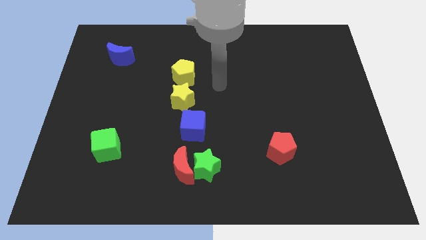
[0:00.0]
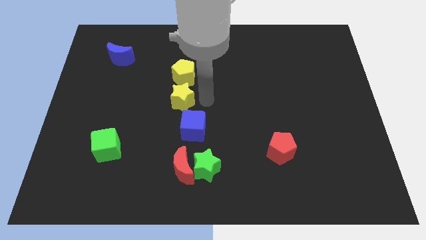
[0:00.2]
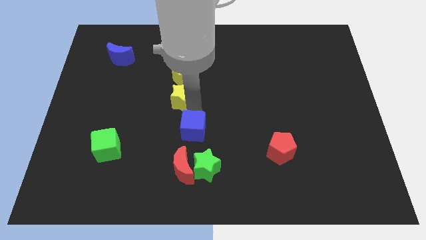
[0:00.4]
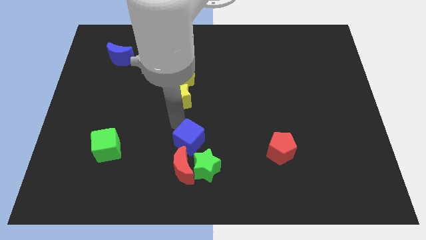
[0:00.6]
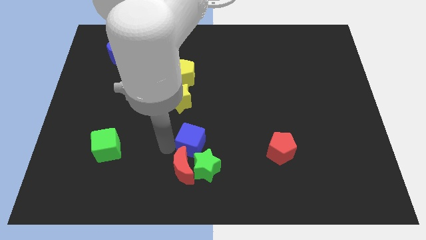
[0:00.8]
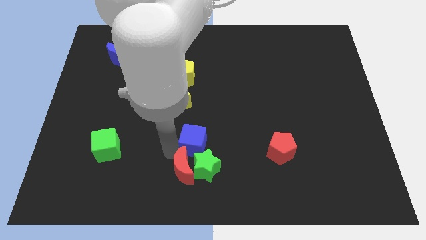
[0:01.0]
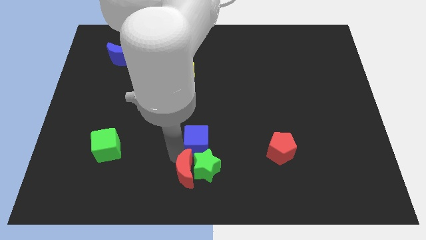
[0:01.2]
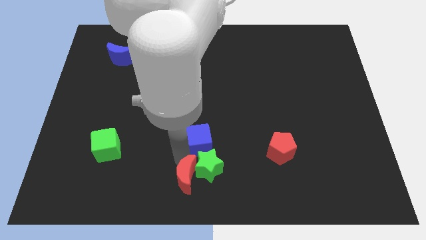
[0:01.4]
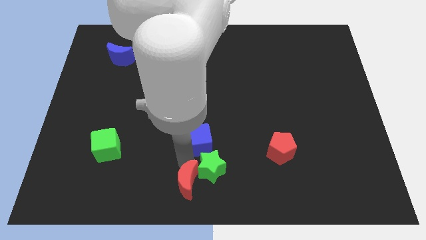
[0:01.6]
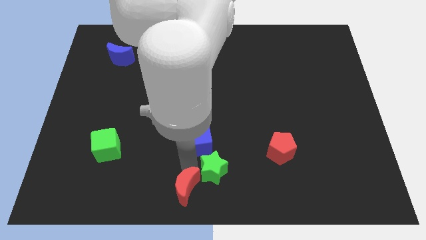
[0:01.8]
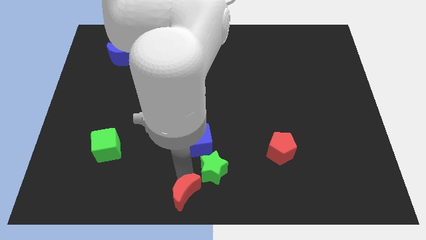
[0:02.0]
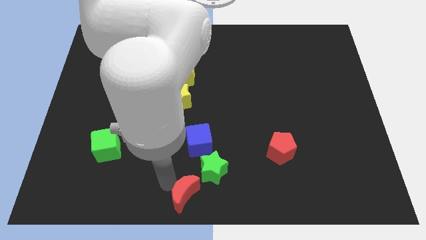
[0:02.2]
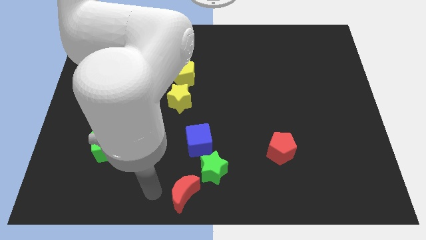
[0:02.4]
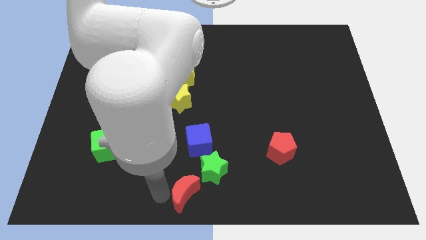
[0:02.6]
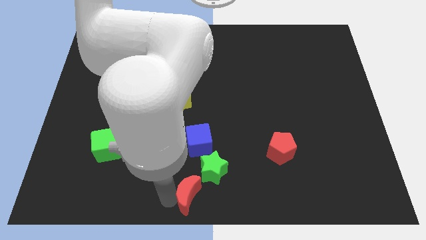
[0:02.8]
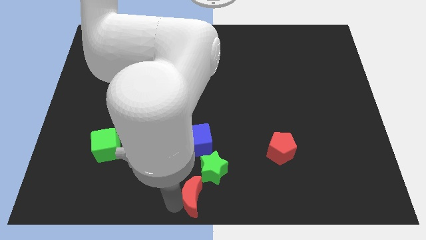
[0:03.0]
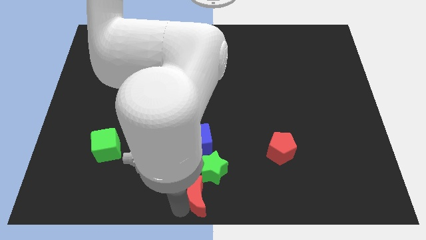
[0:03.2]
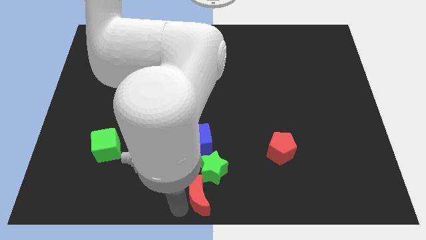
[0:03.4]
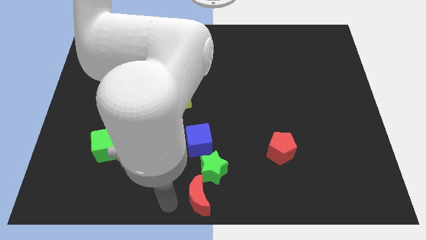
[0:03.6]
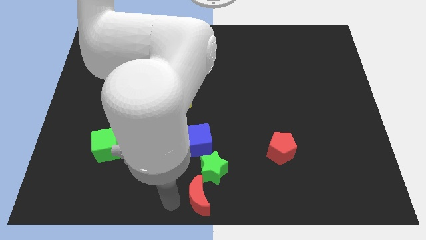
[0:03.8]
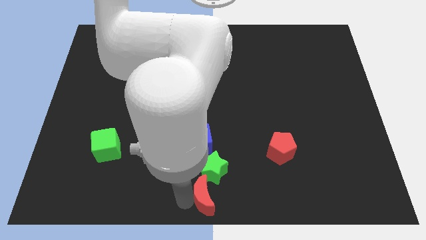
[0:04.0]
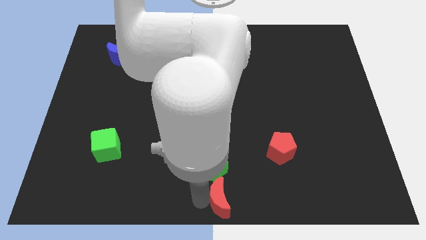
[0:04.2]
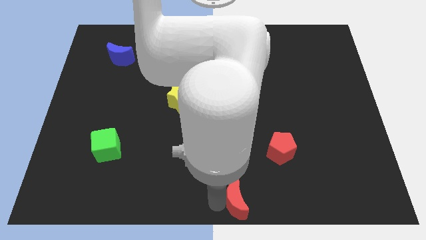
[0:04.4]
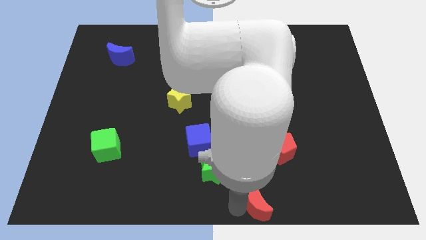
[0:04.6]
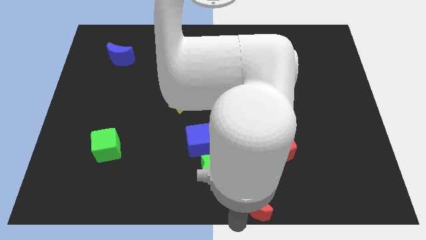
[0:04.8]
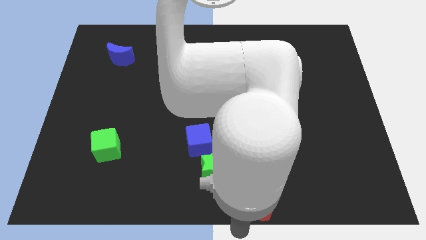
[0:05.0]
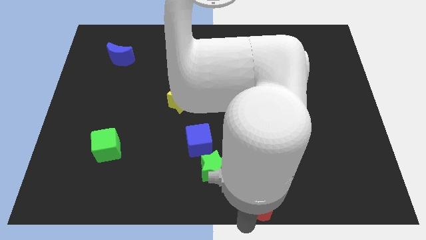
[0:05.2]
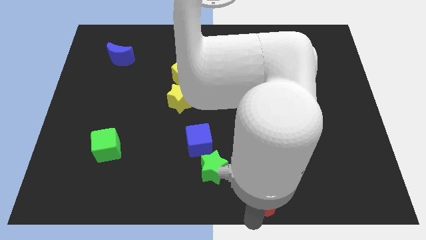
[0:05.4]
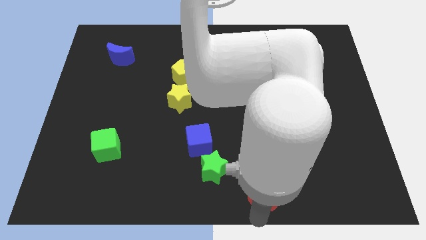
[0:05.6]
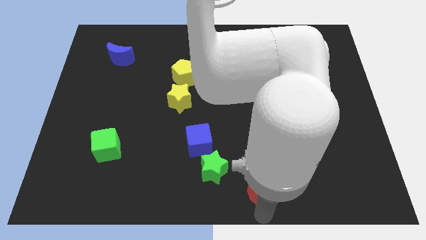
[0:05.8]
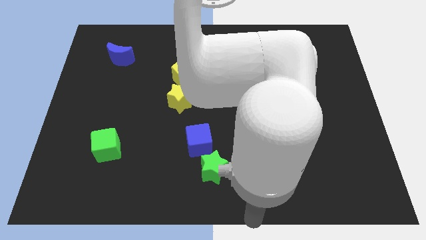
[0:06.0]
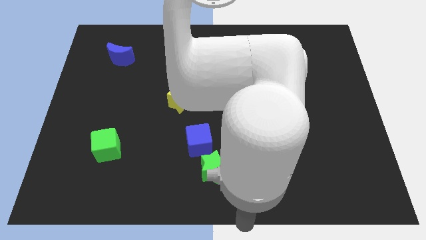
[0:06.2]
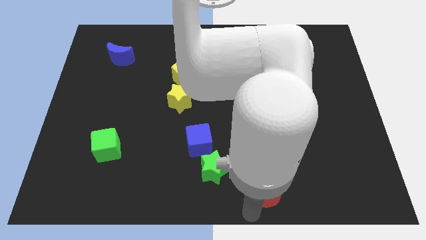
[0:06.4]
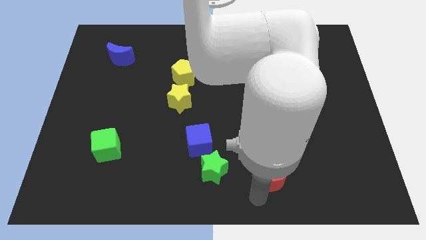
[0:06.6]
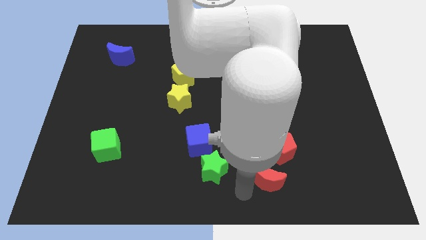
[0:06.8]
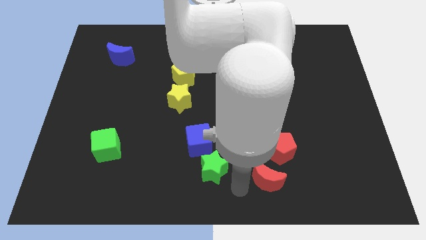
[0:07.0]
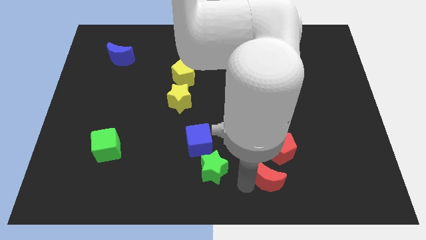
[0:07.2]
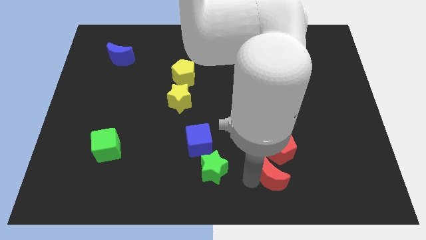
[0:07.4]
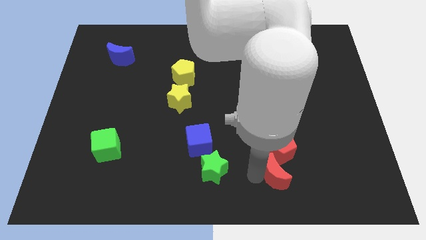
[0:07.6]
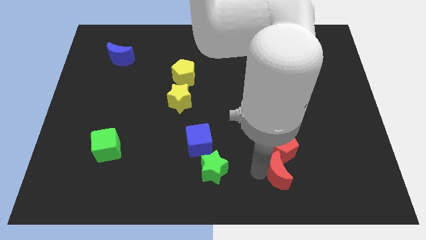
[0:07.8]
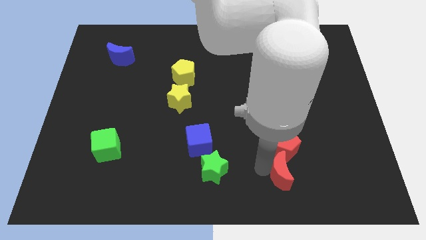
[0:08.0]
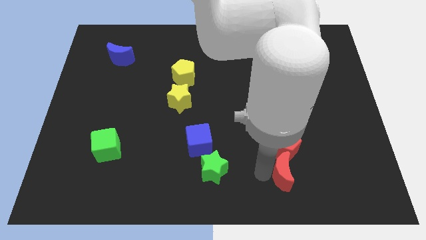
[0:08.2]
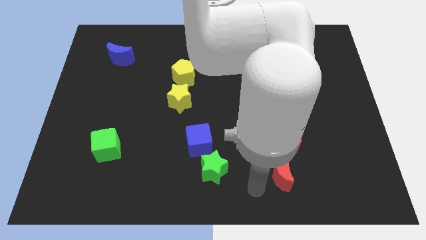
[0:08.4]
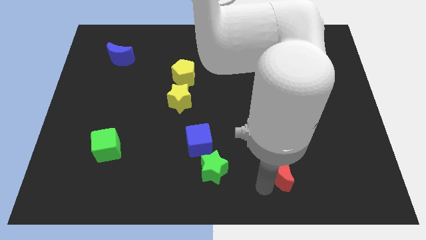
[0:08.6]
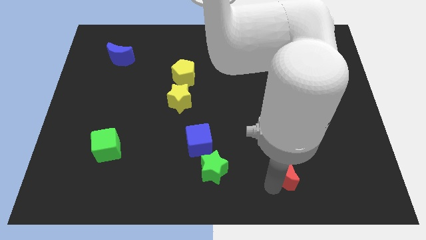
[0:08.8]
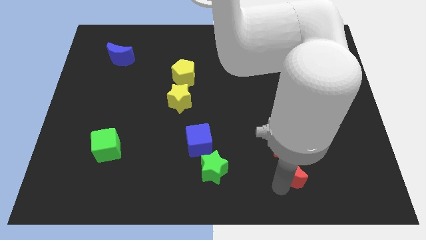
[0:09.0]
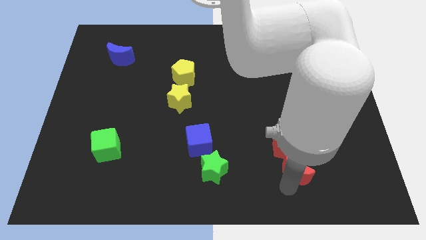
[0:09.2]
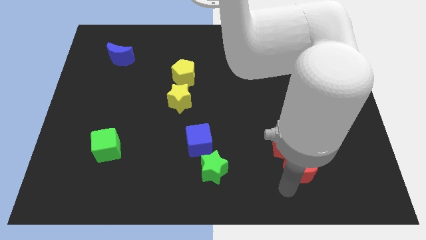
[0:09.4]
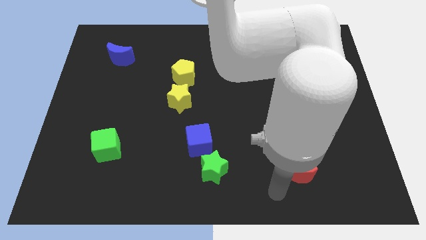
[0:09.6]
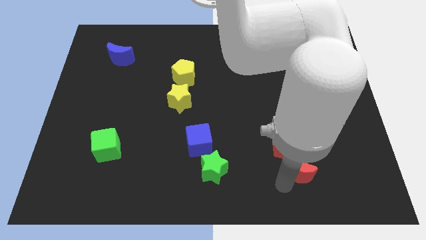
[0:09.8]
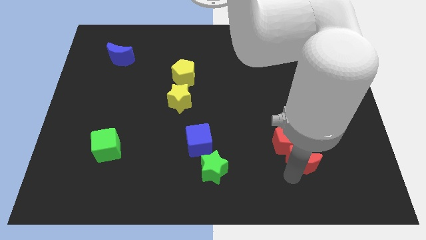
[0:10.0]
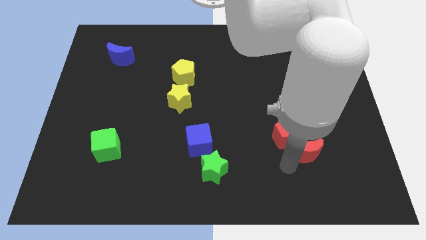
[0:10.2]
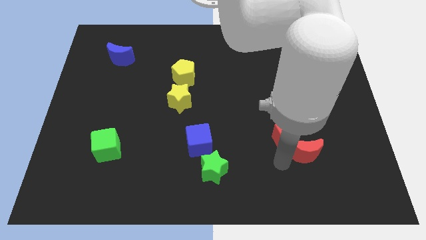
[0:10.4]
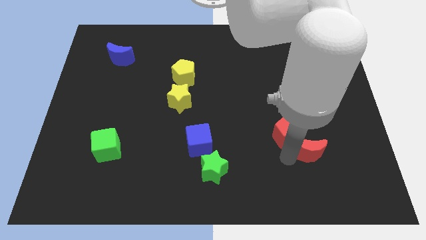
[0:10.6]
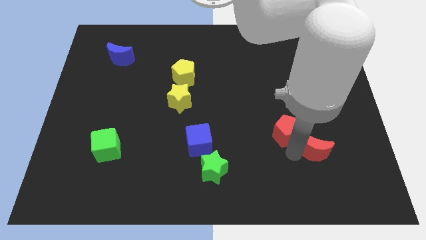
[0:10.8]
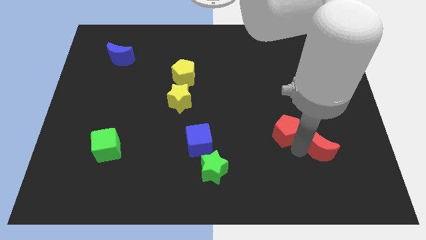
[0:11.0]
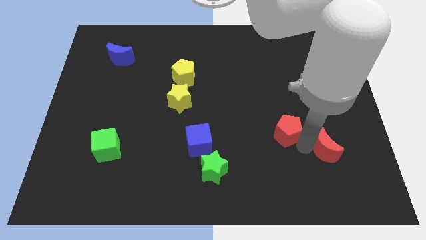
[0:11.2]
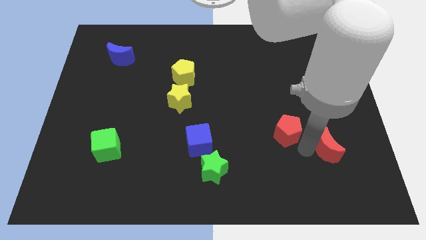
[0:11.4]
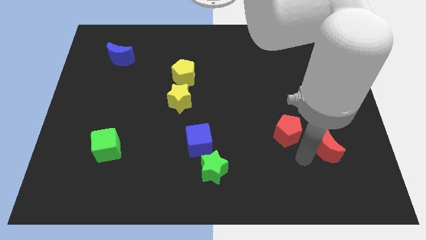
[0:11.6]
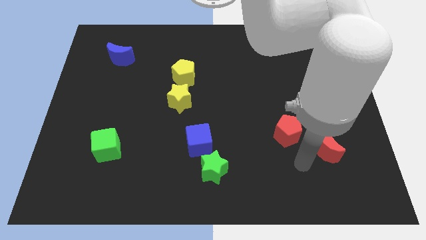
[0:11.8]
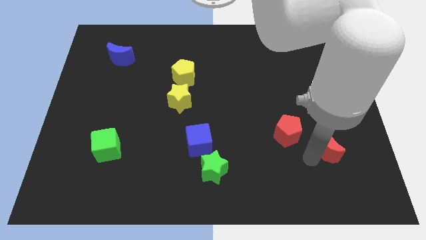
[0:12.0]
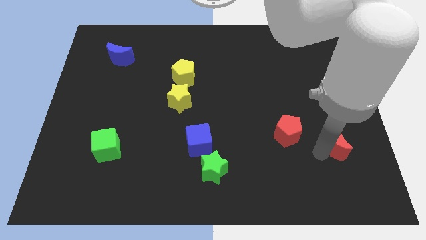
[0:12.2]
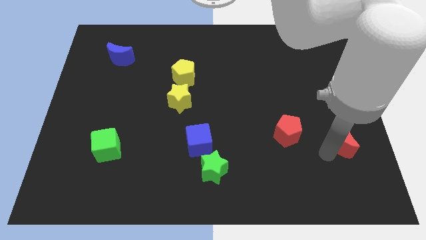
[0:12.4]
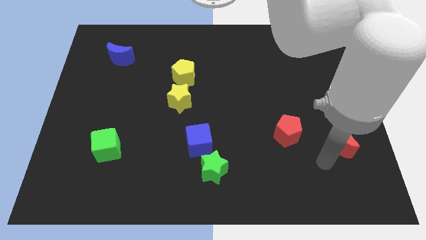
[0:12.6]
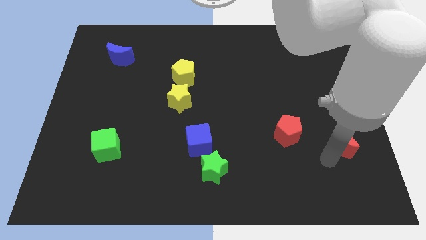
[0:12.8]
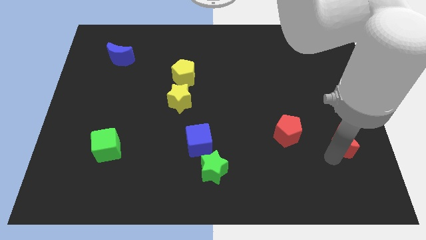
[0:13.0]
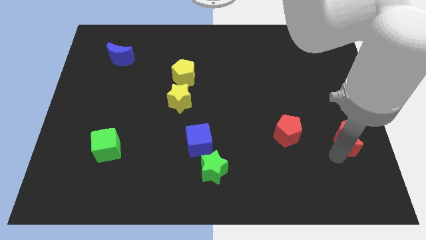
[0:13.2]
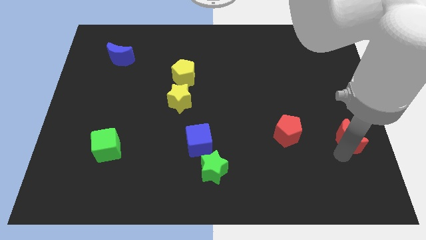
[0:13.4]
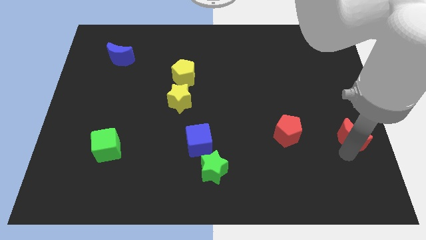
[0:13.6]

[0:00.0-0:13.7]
push the red moon to the center right
